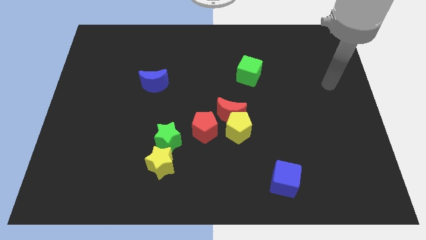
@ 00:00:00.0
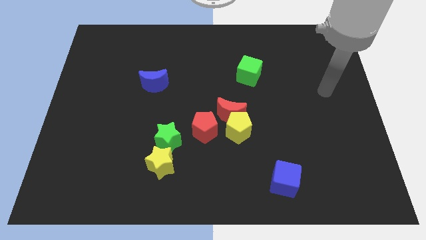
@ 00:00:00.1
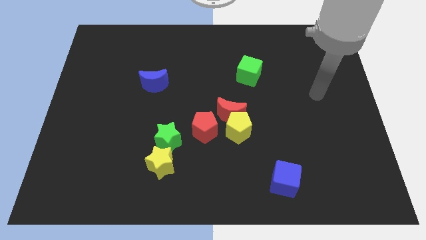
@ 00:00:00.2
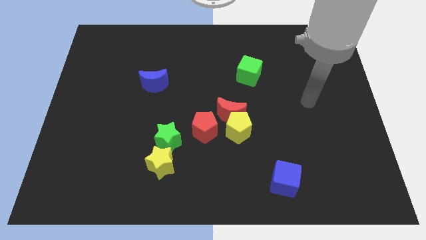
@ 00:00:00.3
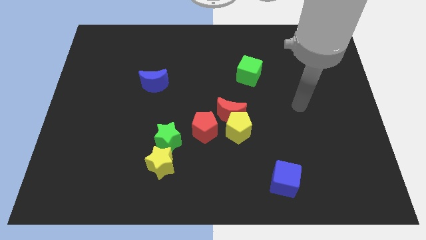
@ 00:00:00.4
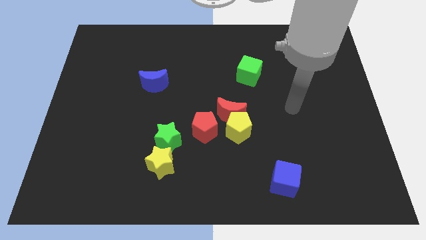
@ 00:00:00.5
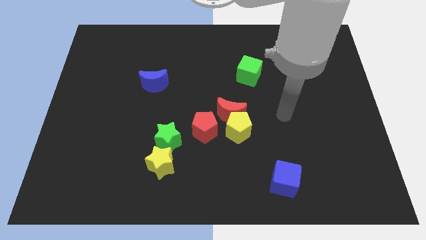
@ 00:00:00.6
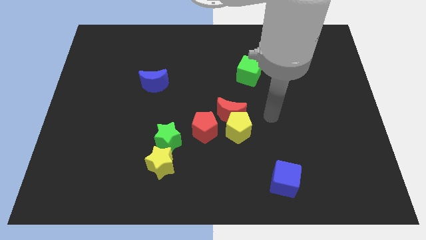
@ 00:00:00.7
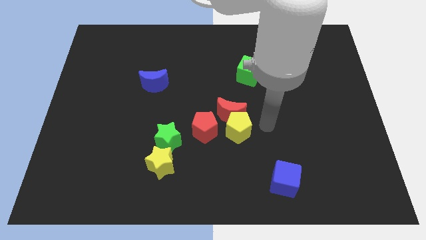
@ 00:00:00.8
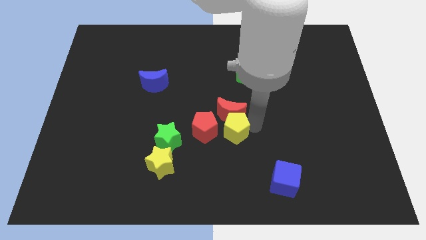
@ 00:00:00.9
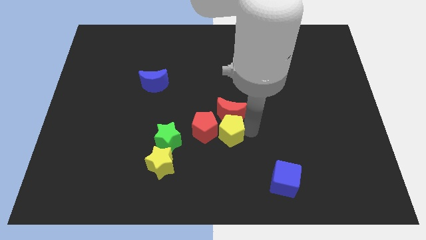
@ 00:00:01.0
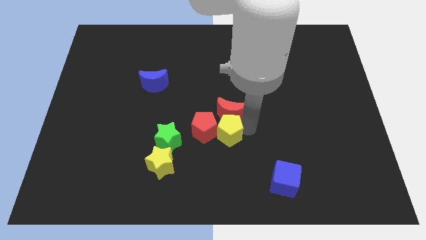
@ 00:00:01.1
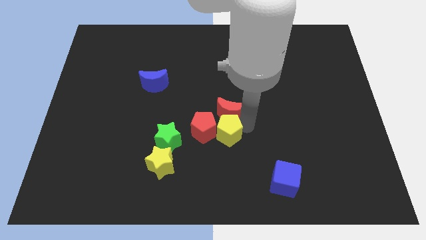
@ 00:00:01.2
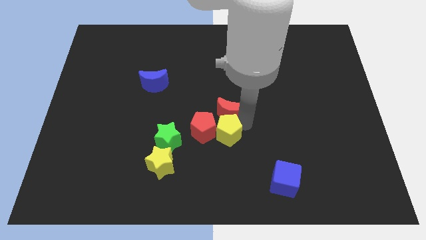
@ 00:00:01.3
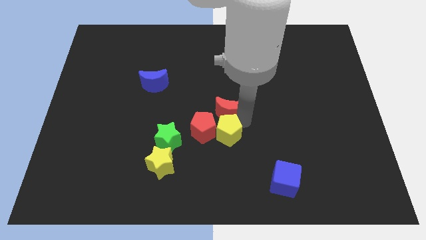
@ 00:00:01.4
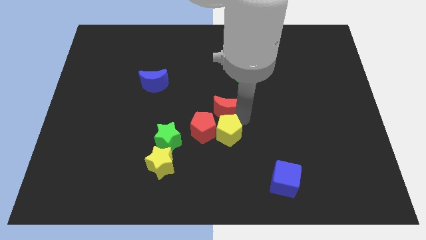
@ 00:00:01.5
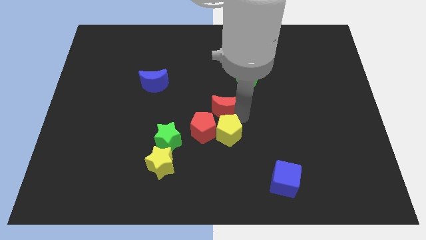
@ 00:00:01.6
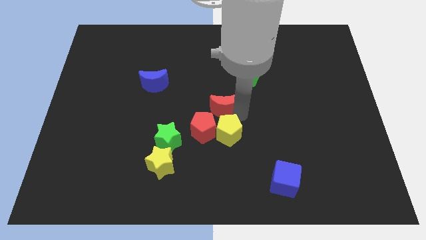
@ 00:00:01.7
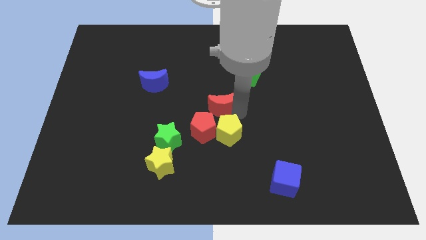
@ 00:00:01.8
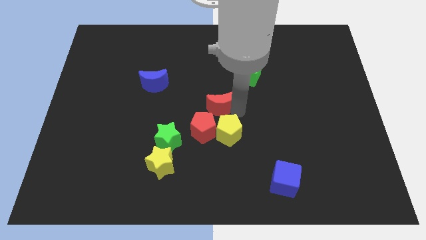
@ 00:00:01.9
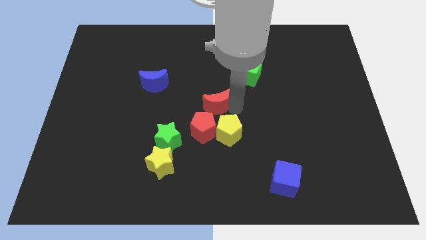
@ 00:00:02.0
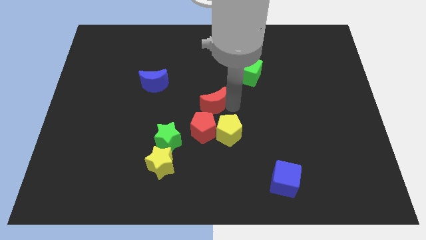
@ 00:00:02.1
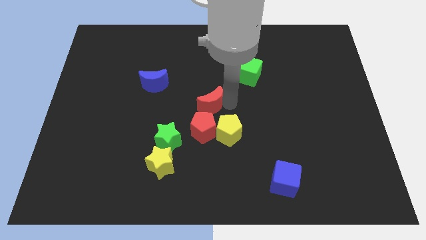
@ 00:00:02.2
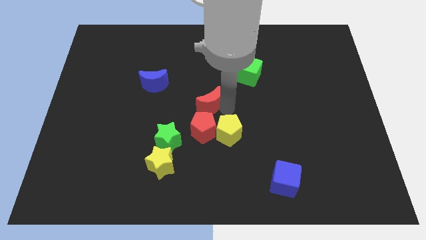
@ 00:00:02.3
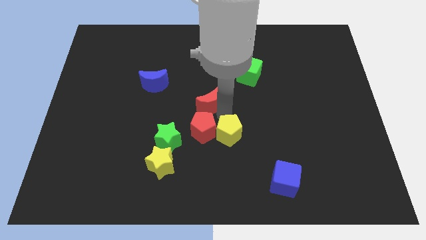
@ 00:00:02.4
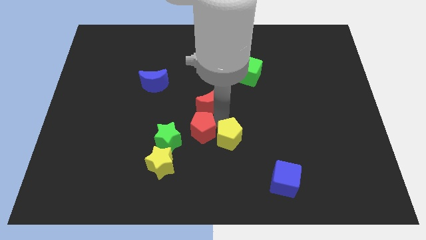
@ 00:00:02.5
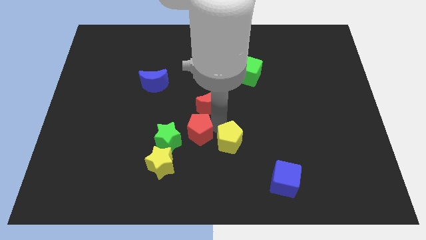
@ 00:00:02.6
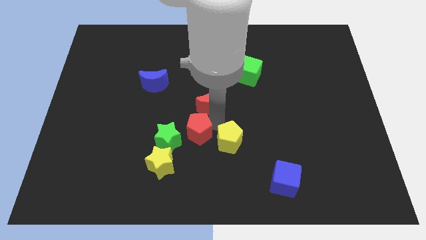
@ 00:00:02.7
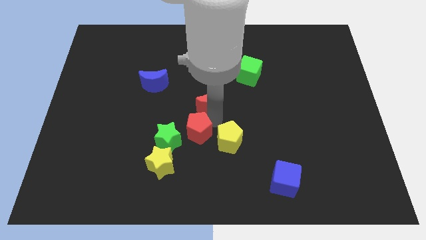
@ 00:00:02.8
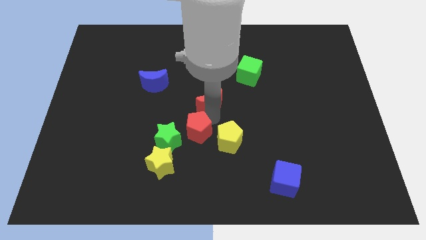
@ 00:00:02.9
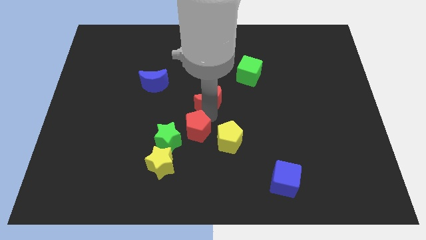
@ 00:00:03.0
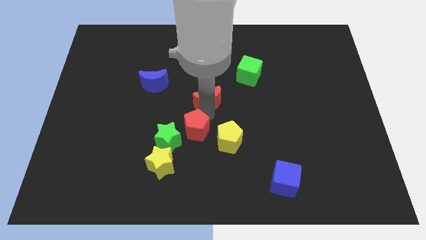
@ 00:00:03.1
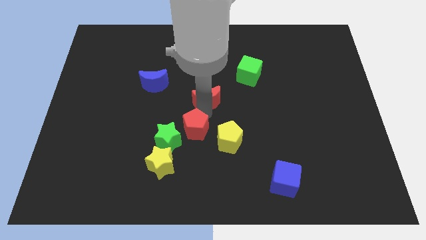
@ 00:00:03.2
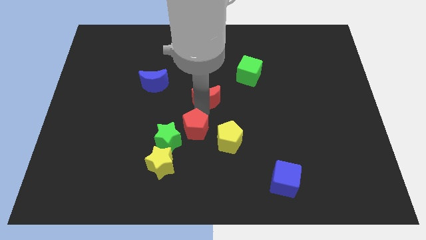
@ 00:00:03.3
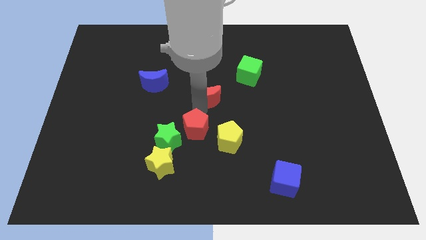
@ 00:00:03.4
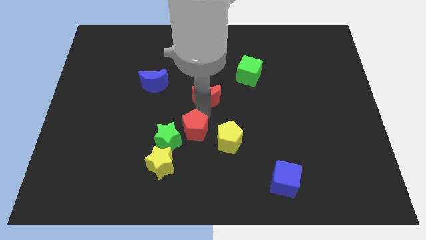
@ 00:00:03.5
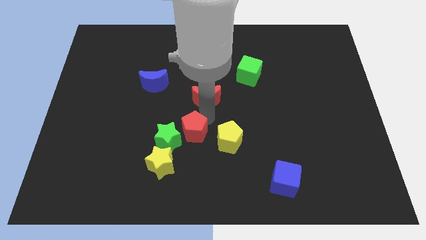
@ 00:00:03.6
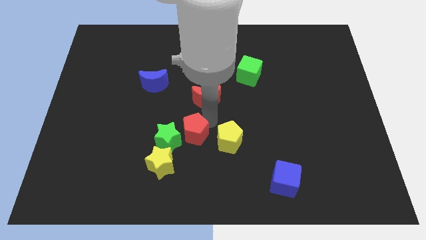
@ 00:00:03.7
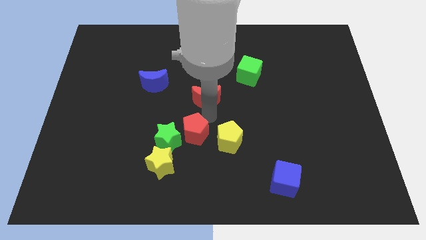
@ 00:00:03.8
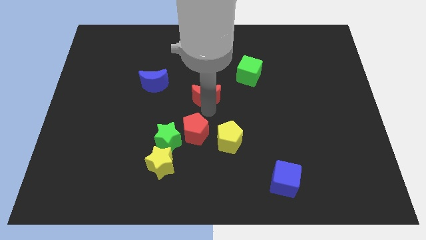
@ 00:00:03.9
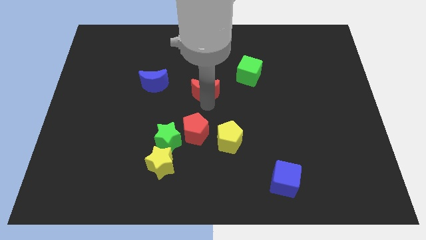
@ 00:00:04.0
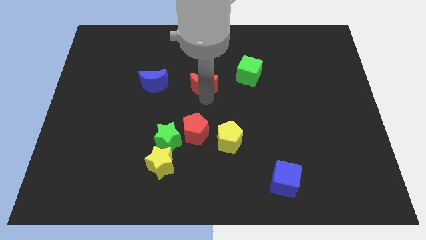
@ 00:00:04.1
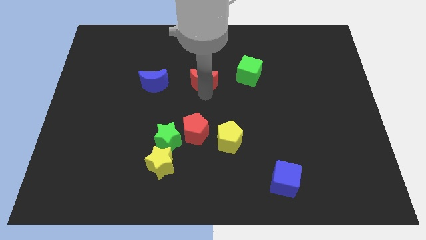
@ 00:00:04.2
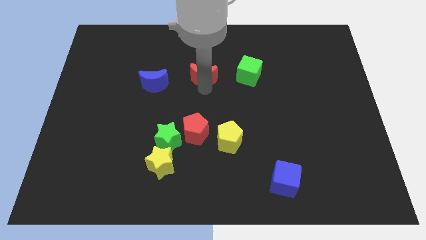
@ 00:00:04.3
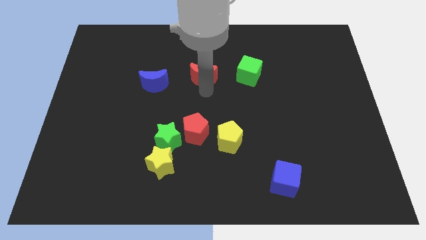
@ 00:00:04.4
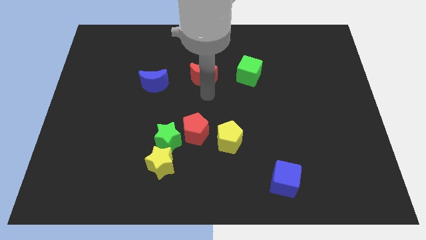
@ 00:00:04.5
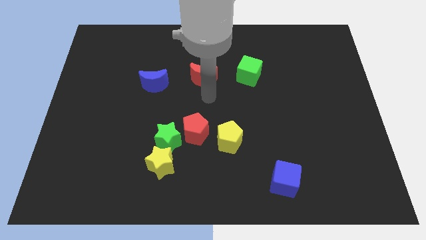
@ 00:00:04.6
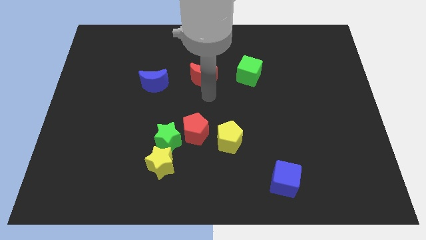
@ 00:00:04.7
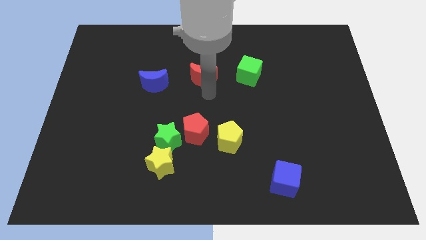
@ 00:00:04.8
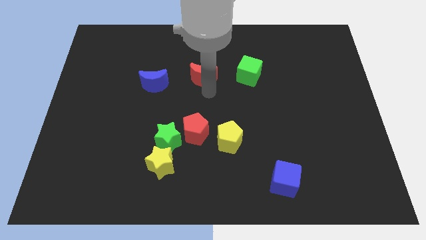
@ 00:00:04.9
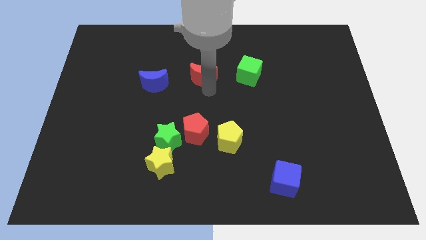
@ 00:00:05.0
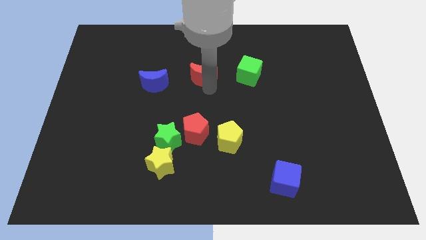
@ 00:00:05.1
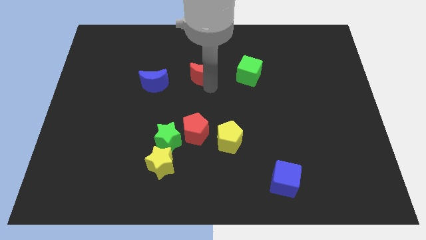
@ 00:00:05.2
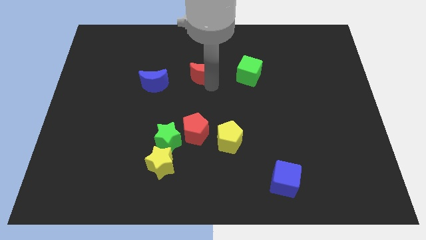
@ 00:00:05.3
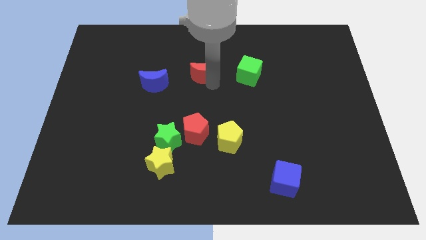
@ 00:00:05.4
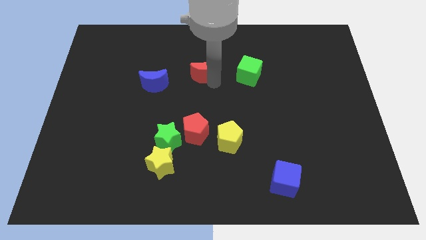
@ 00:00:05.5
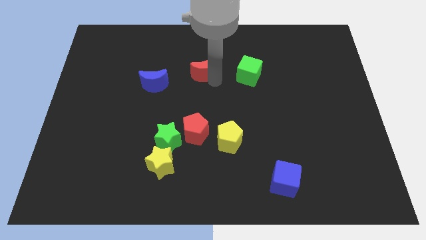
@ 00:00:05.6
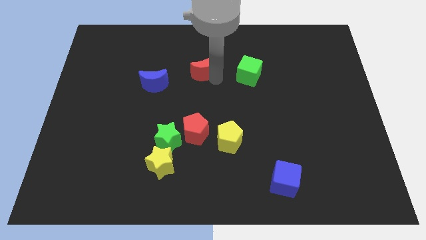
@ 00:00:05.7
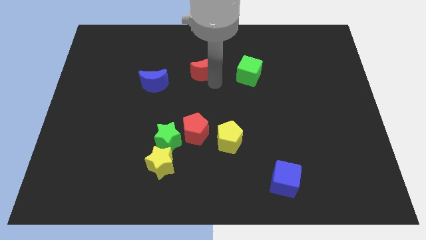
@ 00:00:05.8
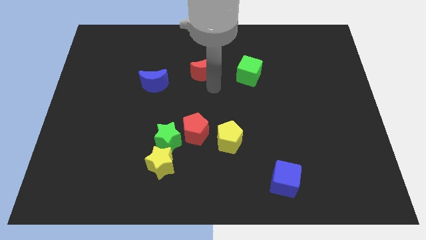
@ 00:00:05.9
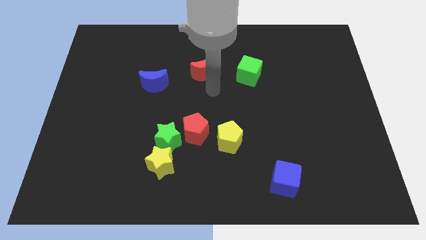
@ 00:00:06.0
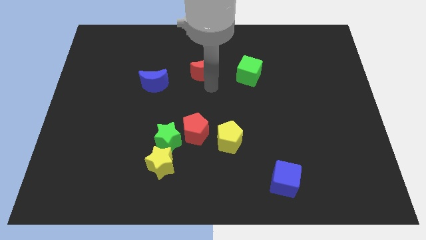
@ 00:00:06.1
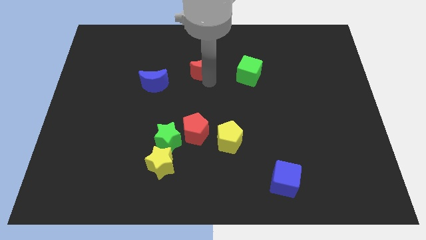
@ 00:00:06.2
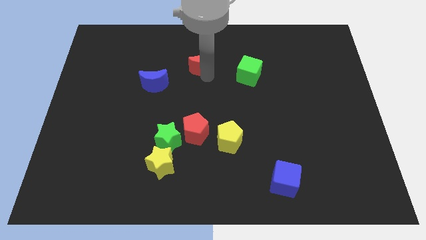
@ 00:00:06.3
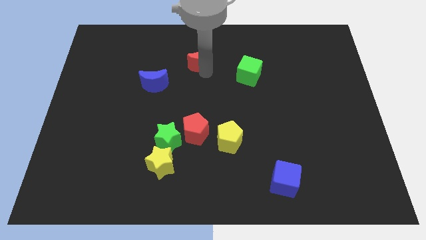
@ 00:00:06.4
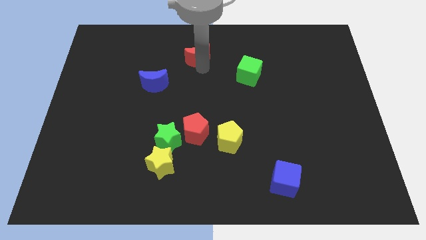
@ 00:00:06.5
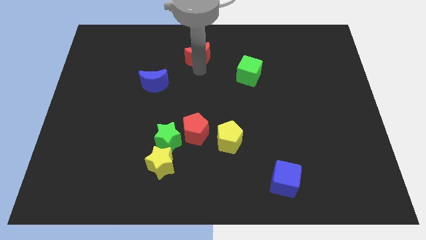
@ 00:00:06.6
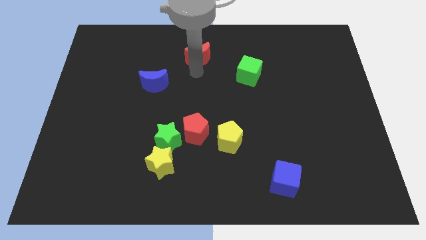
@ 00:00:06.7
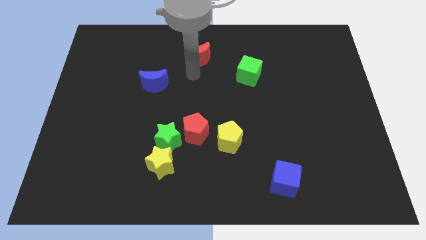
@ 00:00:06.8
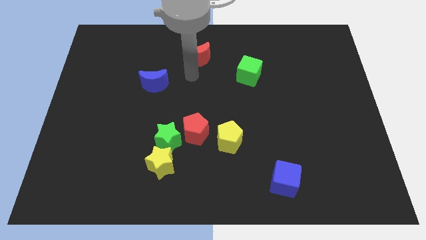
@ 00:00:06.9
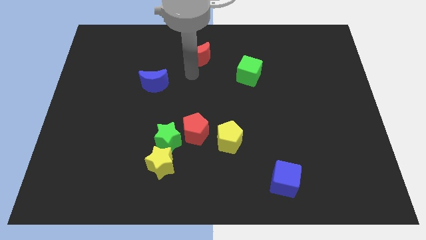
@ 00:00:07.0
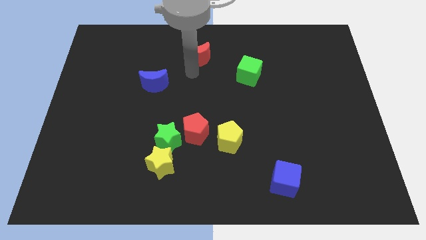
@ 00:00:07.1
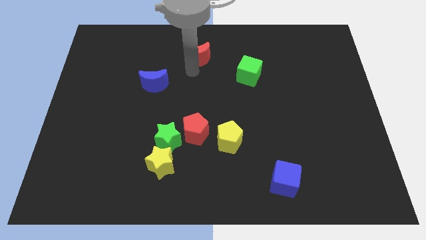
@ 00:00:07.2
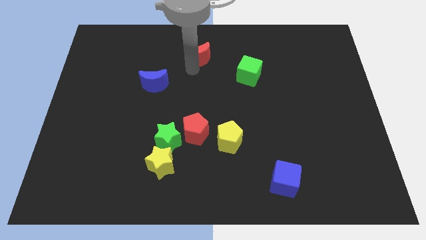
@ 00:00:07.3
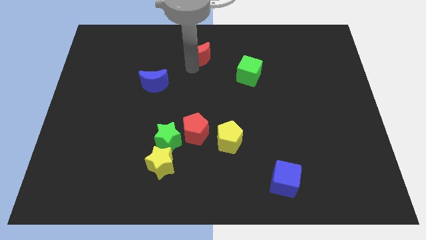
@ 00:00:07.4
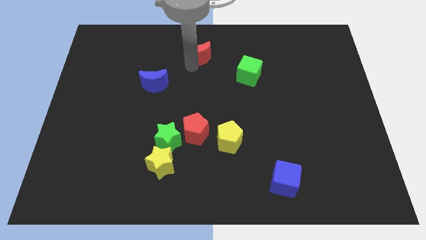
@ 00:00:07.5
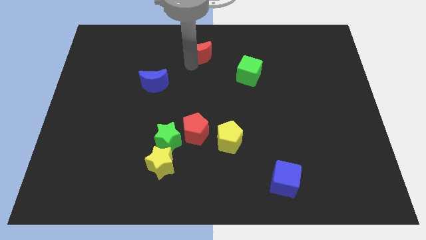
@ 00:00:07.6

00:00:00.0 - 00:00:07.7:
put the red moon to the towards your base
